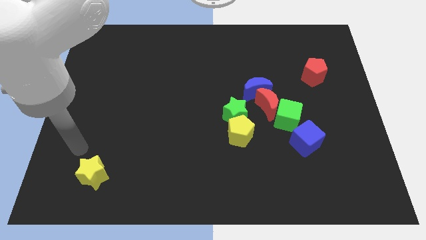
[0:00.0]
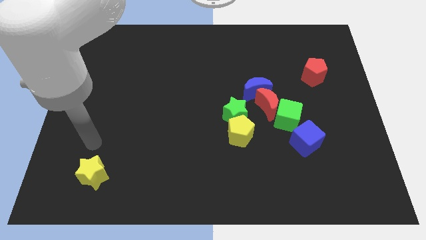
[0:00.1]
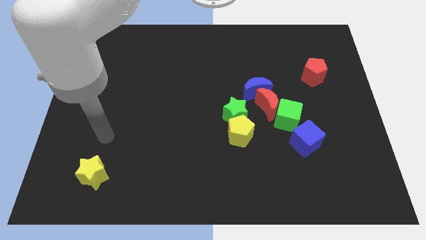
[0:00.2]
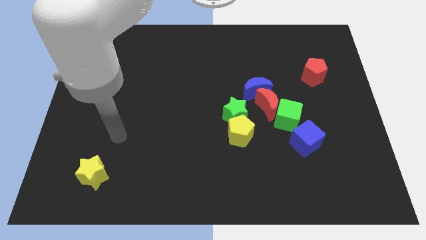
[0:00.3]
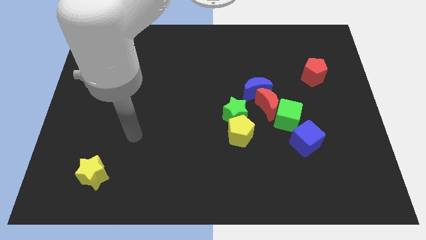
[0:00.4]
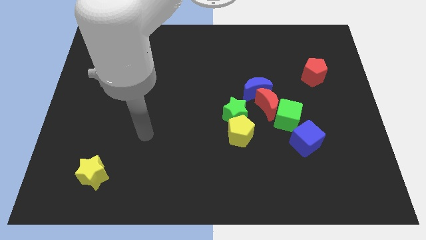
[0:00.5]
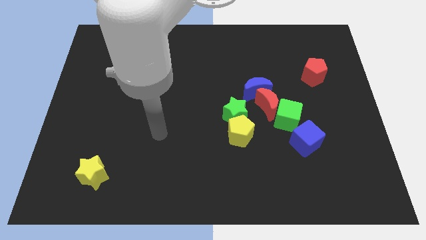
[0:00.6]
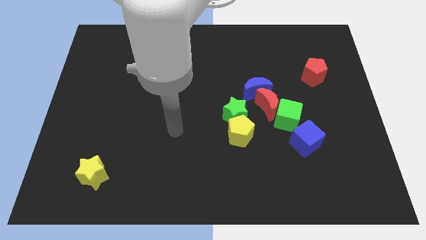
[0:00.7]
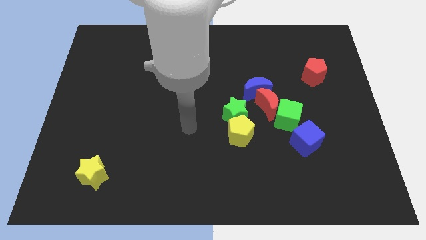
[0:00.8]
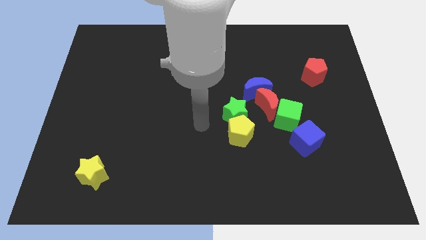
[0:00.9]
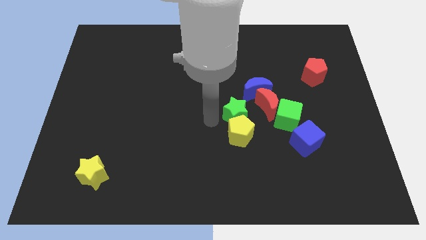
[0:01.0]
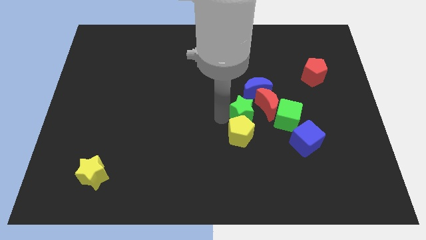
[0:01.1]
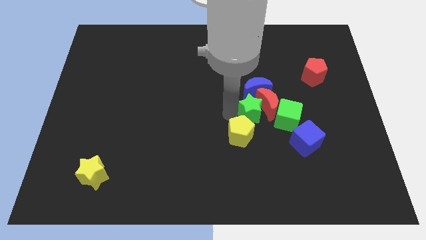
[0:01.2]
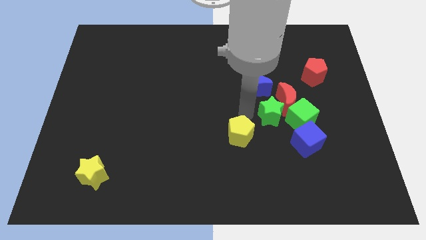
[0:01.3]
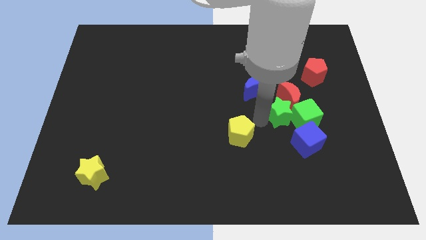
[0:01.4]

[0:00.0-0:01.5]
pull the yellow pentagon apart from the green star

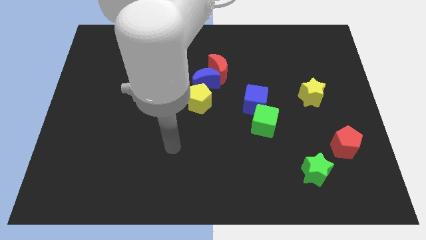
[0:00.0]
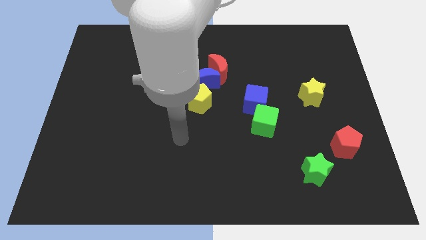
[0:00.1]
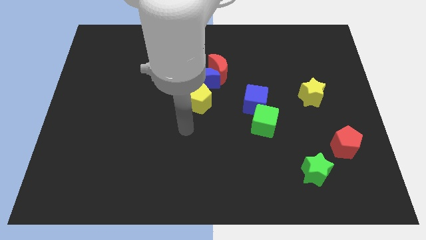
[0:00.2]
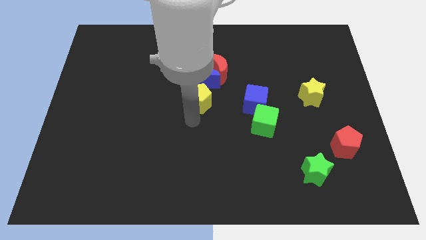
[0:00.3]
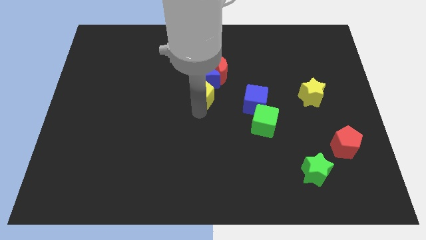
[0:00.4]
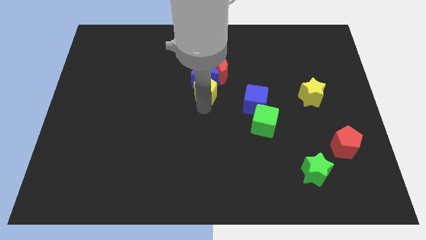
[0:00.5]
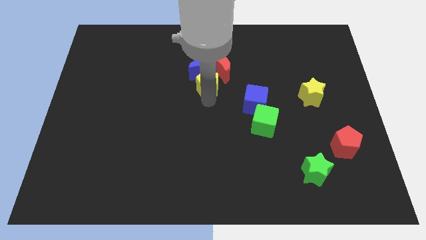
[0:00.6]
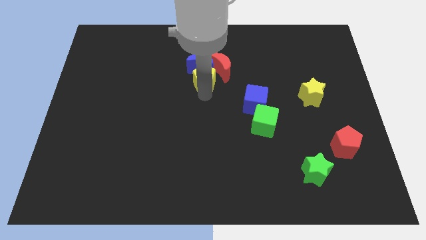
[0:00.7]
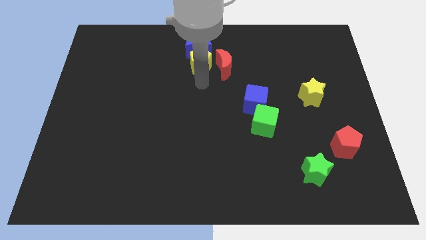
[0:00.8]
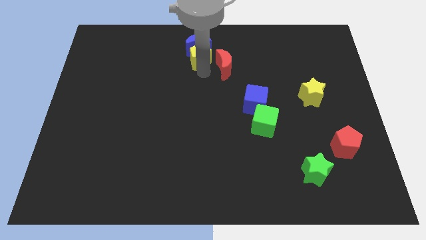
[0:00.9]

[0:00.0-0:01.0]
pull the red moon apart from the blue moon

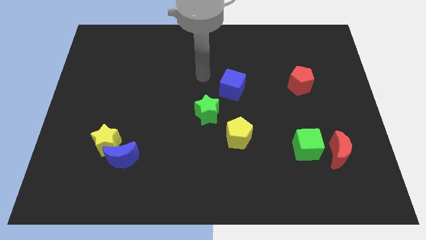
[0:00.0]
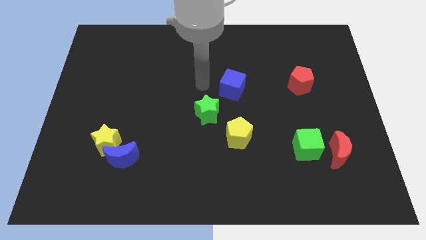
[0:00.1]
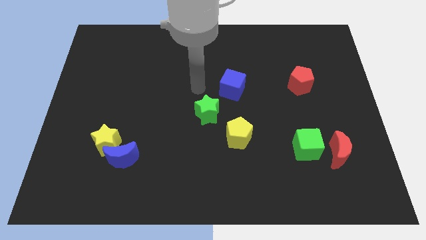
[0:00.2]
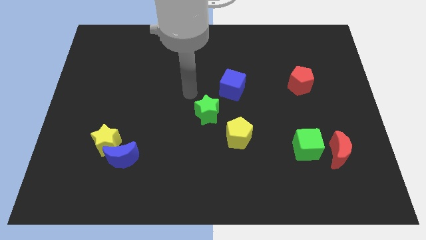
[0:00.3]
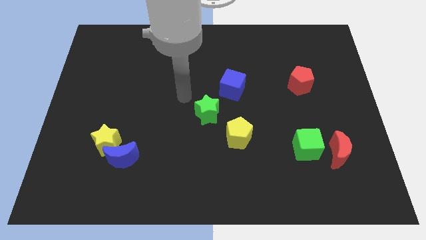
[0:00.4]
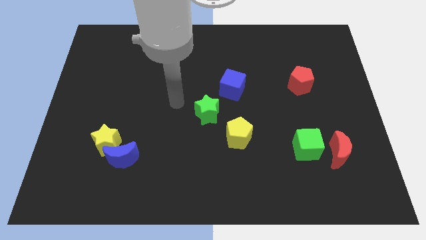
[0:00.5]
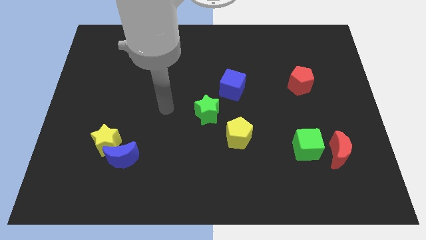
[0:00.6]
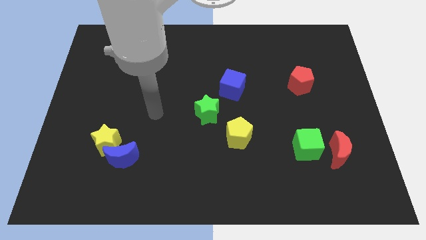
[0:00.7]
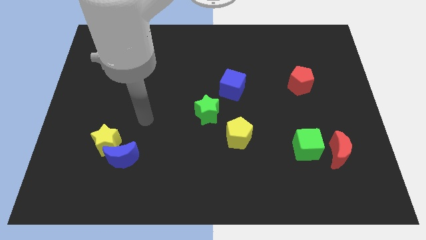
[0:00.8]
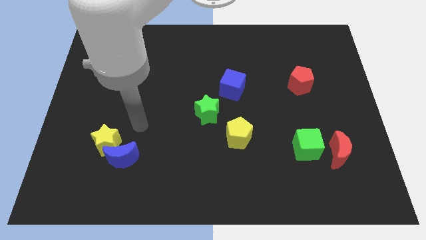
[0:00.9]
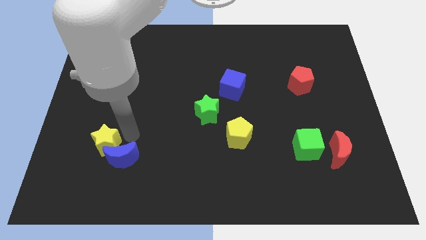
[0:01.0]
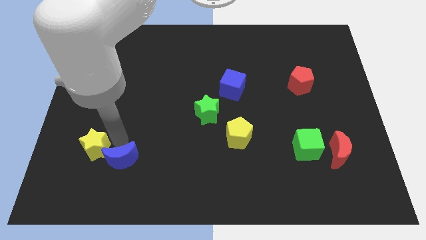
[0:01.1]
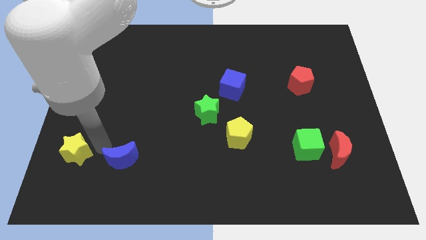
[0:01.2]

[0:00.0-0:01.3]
move the blue moon away from the yellow star

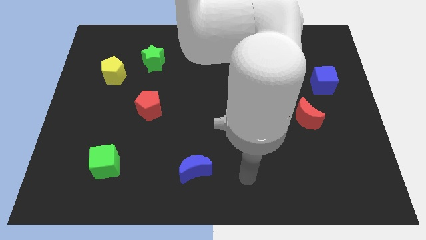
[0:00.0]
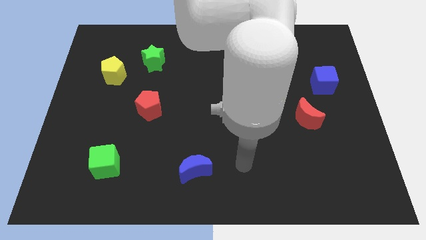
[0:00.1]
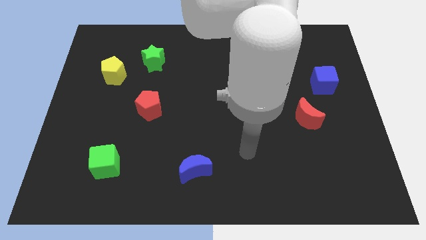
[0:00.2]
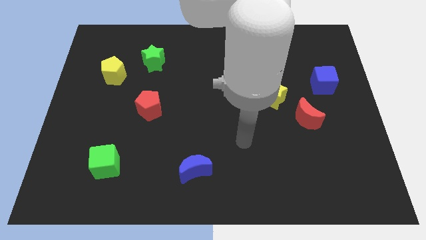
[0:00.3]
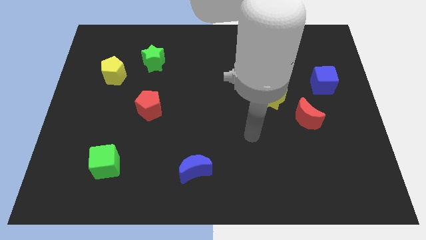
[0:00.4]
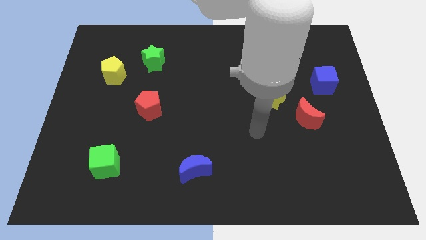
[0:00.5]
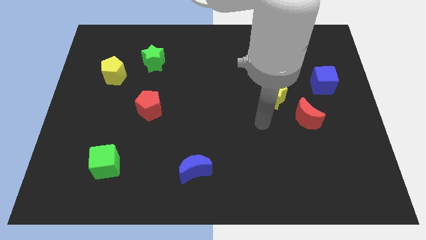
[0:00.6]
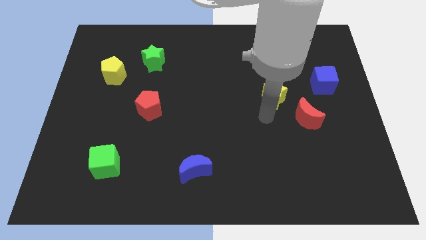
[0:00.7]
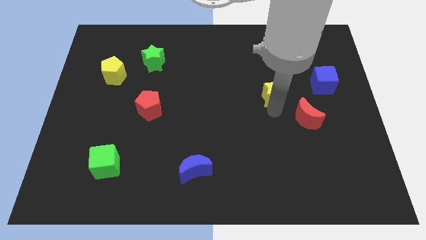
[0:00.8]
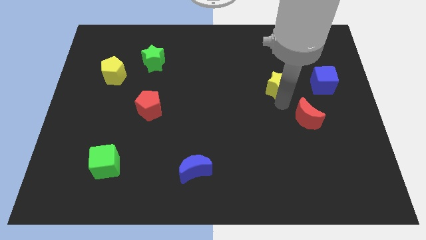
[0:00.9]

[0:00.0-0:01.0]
move the red moon away from the yellow star

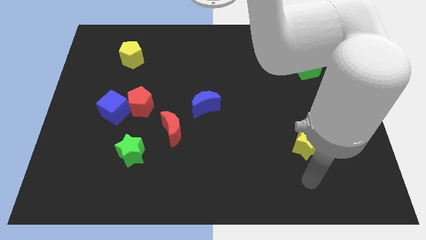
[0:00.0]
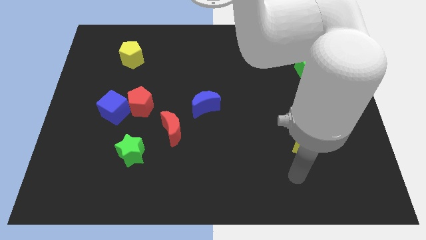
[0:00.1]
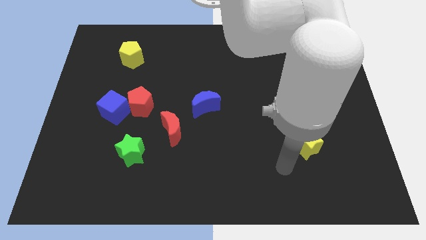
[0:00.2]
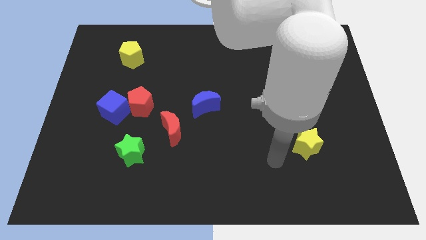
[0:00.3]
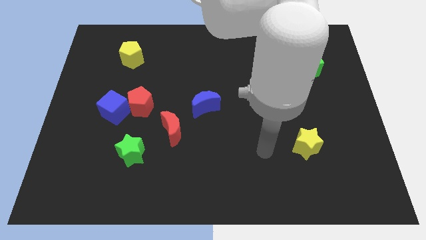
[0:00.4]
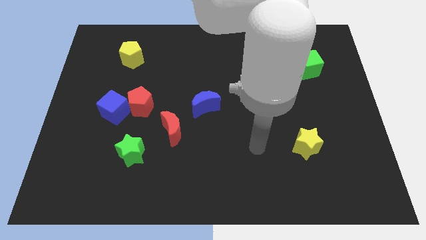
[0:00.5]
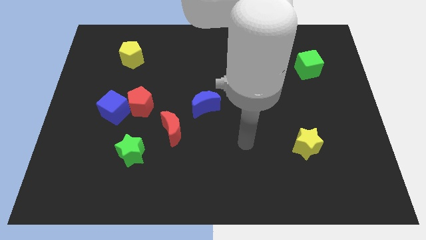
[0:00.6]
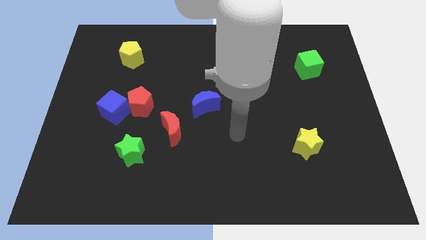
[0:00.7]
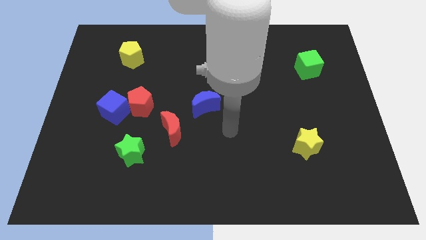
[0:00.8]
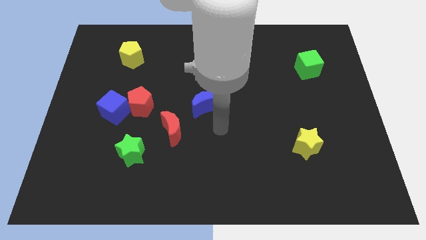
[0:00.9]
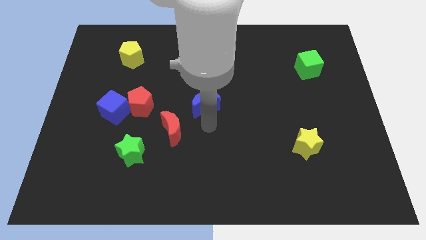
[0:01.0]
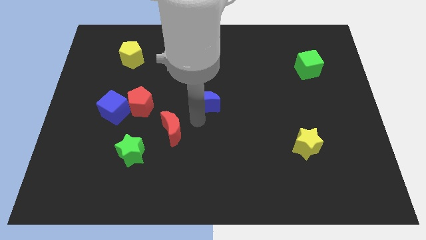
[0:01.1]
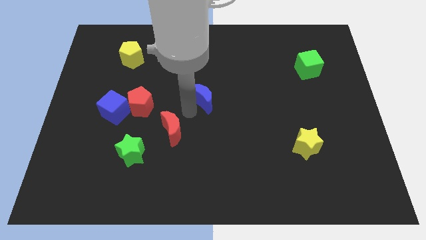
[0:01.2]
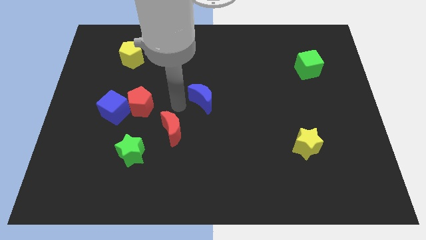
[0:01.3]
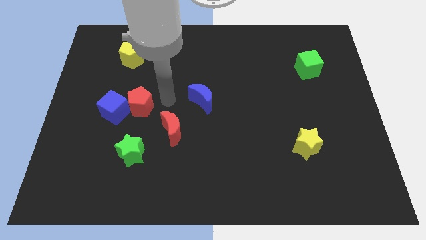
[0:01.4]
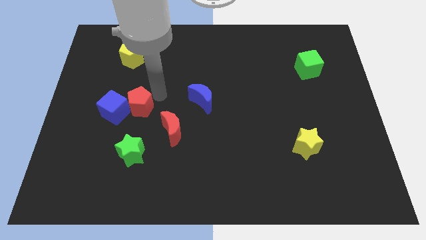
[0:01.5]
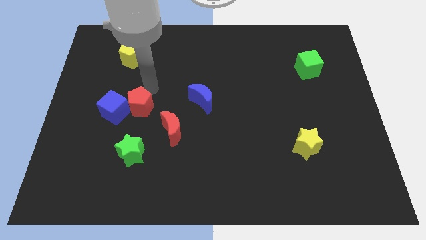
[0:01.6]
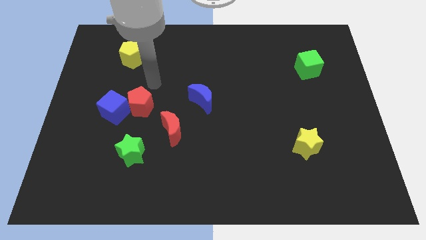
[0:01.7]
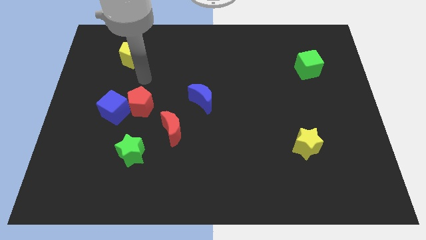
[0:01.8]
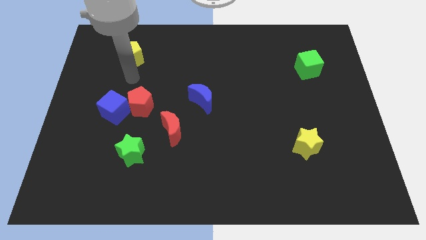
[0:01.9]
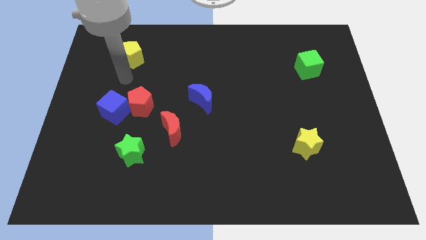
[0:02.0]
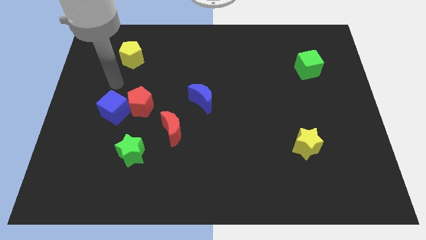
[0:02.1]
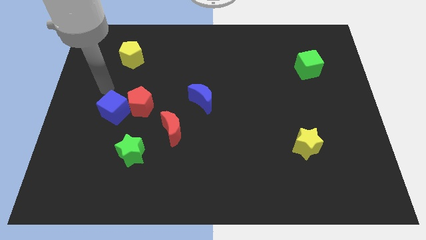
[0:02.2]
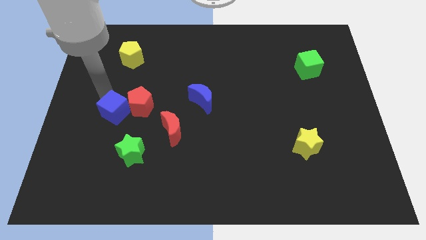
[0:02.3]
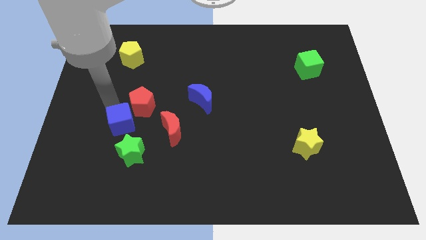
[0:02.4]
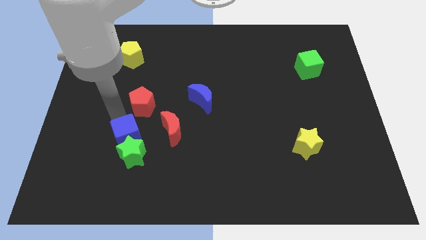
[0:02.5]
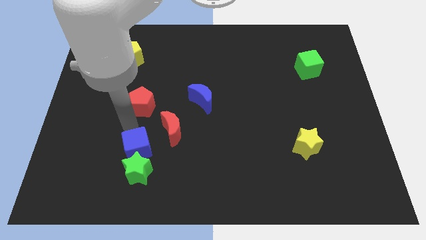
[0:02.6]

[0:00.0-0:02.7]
move the red pentagon away from the blue cube

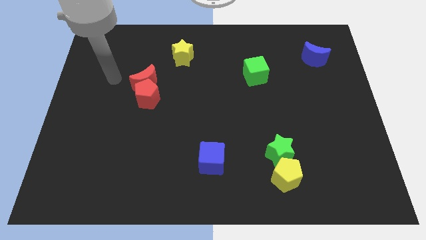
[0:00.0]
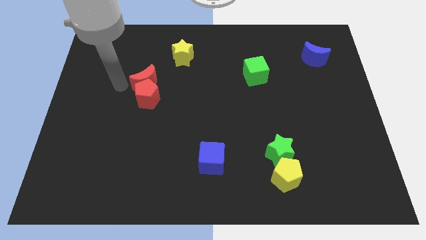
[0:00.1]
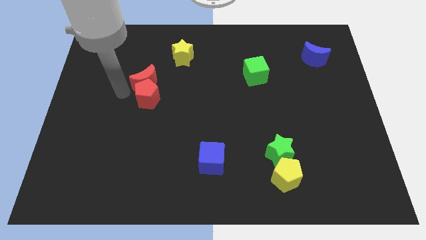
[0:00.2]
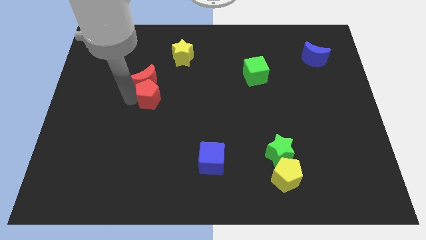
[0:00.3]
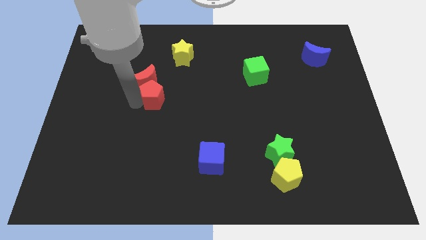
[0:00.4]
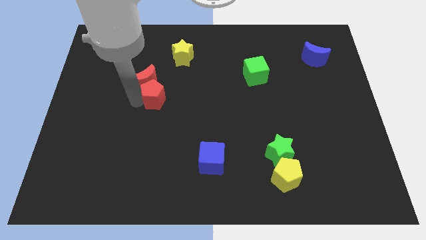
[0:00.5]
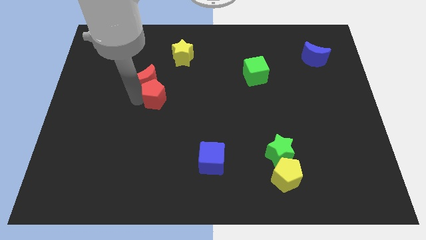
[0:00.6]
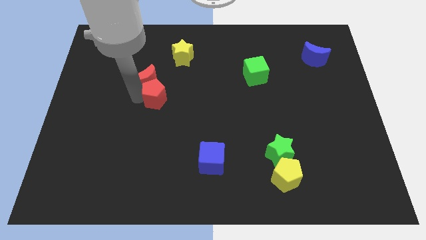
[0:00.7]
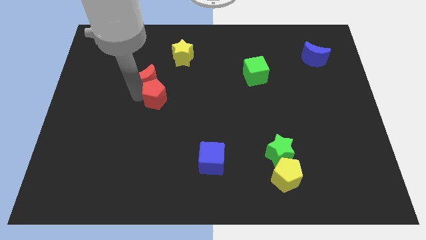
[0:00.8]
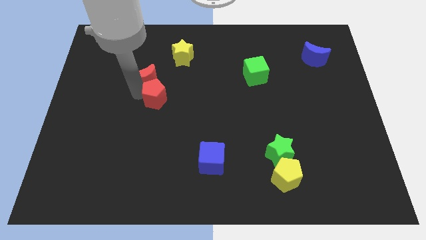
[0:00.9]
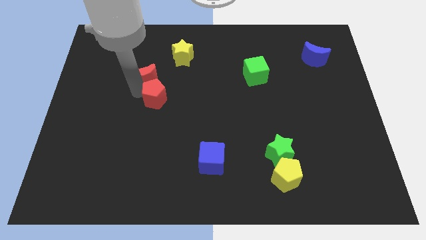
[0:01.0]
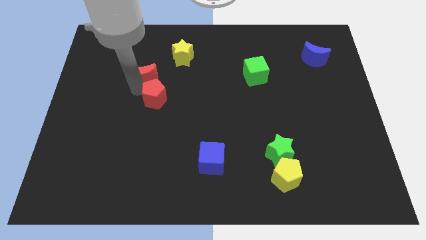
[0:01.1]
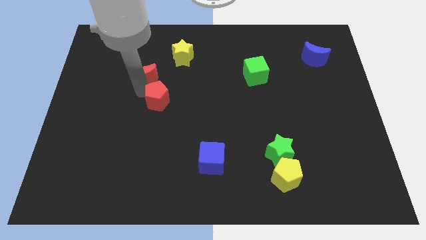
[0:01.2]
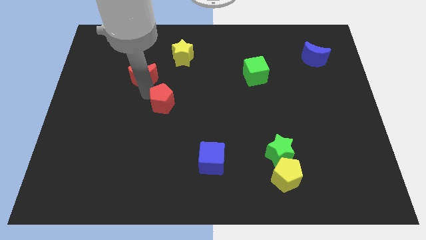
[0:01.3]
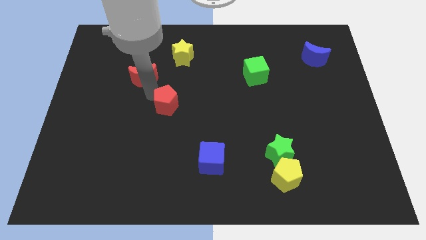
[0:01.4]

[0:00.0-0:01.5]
separate the red moon from the red pentagon

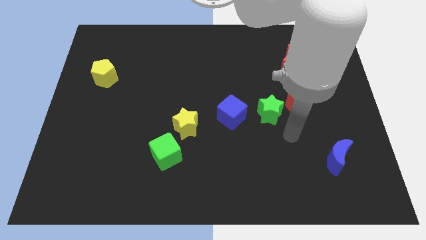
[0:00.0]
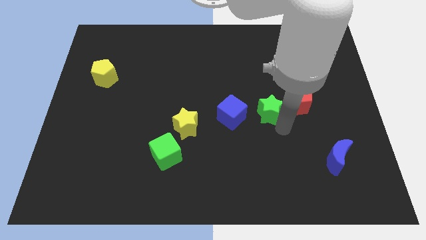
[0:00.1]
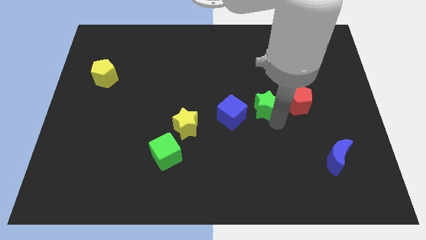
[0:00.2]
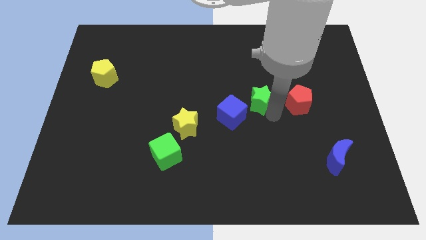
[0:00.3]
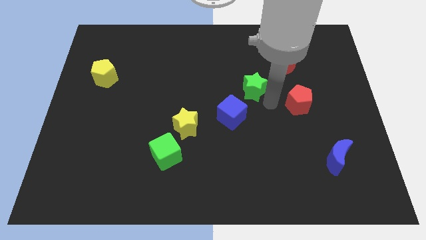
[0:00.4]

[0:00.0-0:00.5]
separate the red pentagon from the green star

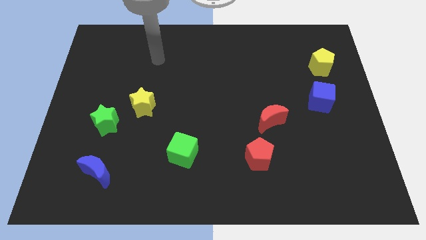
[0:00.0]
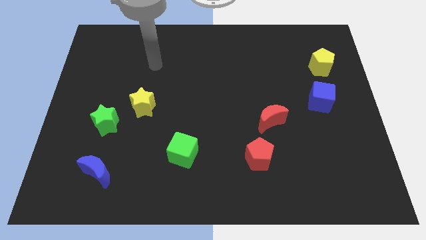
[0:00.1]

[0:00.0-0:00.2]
move the green star away from the yellow star
